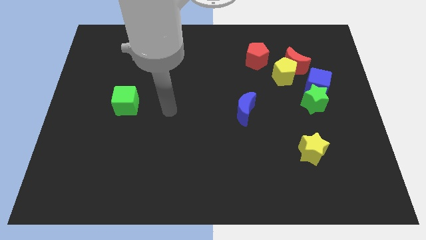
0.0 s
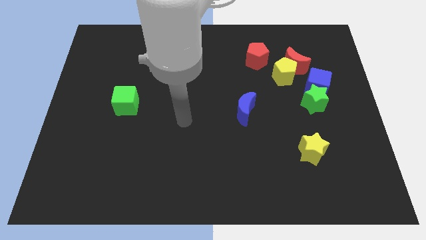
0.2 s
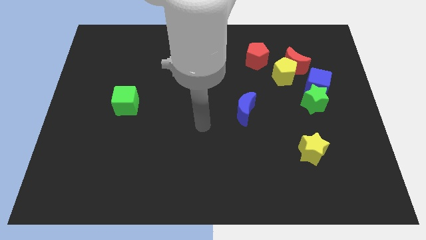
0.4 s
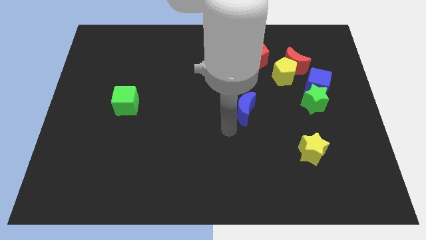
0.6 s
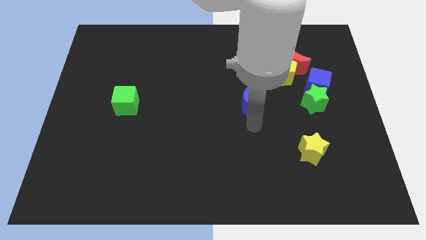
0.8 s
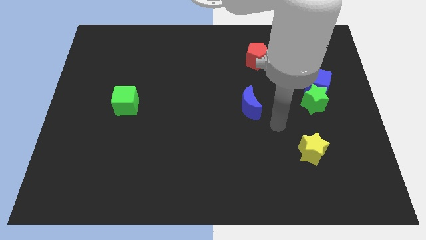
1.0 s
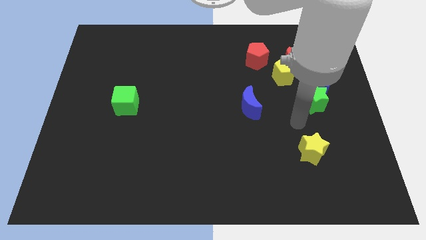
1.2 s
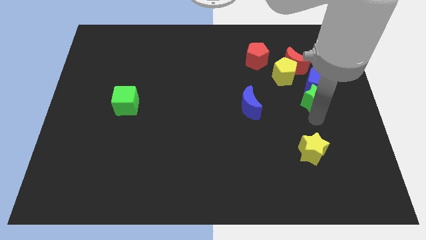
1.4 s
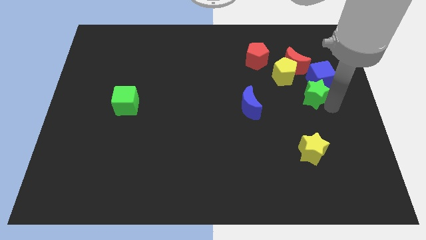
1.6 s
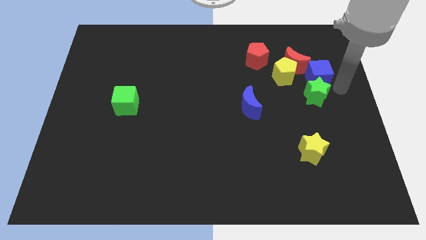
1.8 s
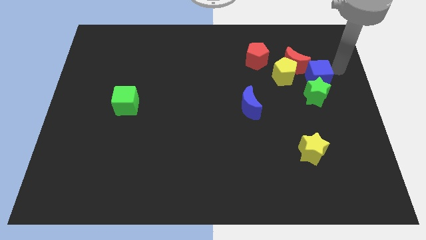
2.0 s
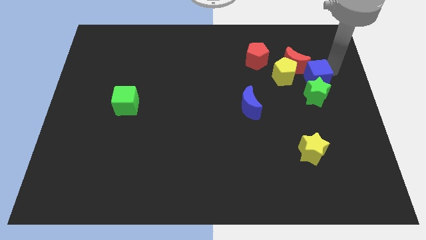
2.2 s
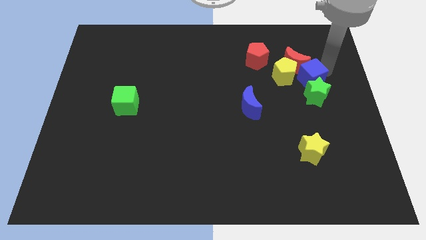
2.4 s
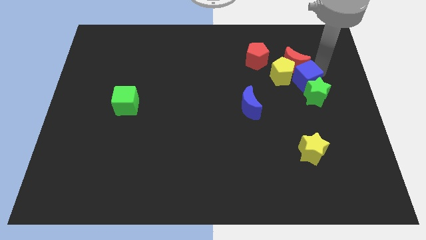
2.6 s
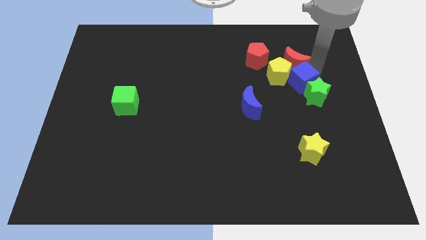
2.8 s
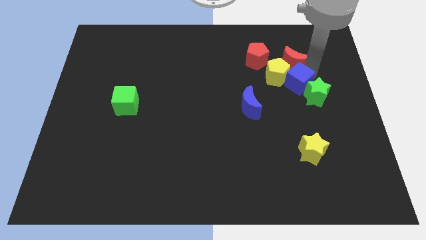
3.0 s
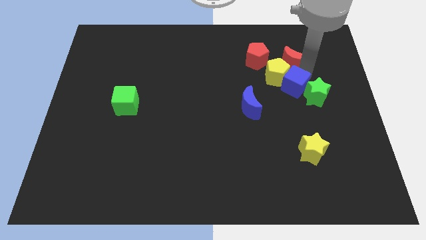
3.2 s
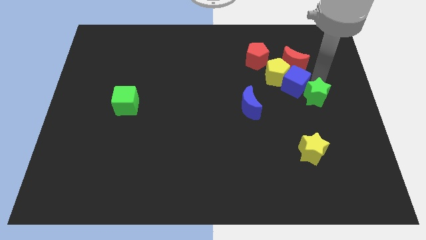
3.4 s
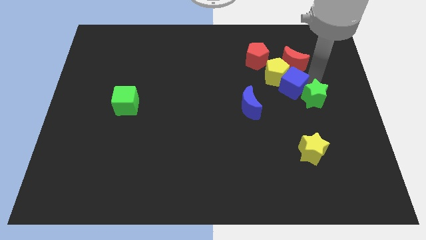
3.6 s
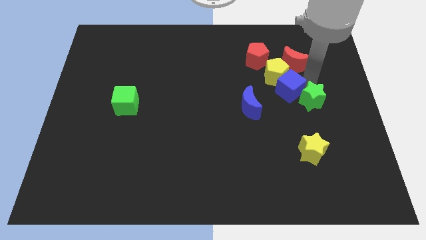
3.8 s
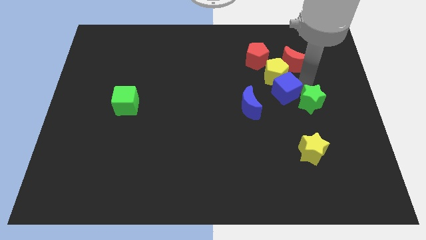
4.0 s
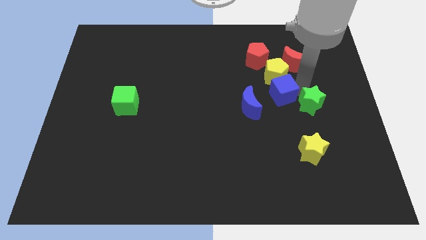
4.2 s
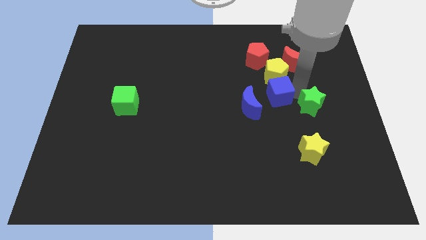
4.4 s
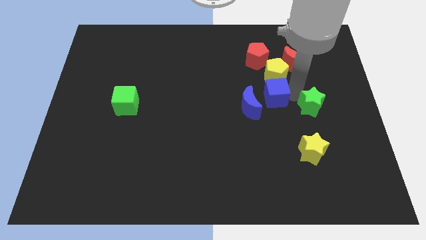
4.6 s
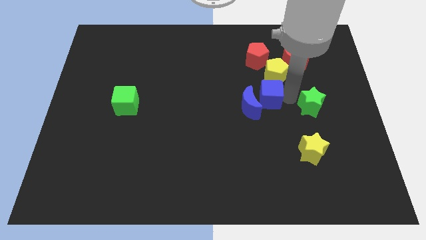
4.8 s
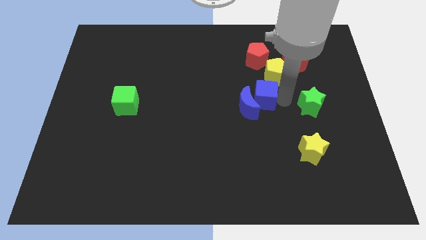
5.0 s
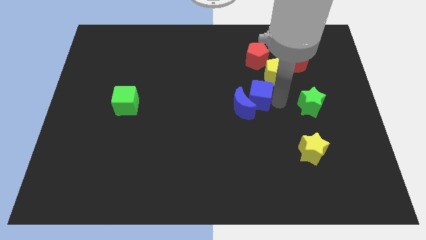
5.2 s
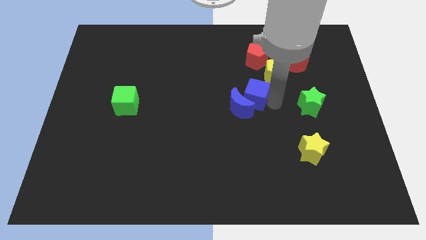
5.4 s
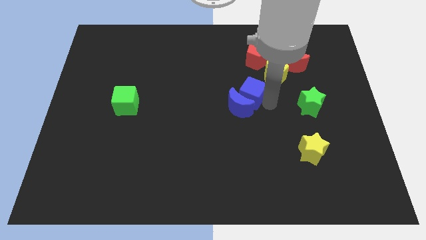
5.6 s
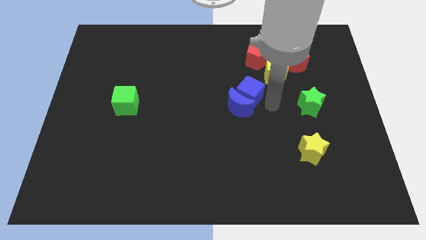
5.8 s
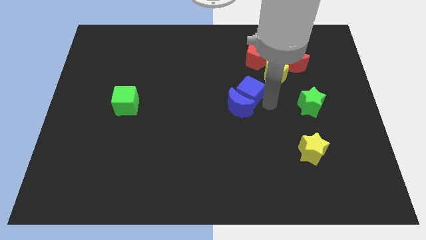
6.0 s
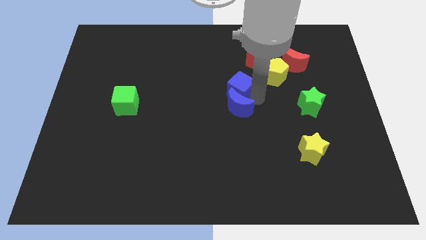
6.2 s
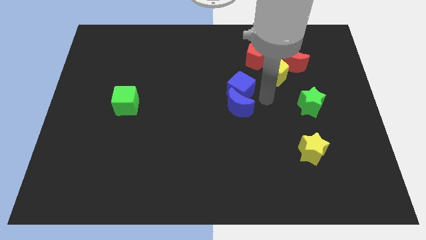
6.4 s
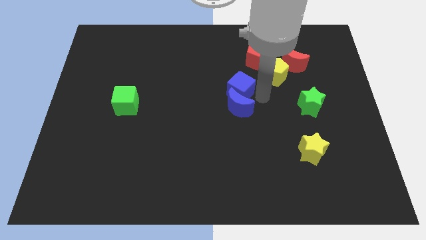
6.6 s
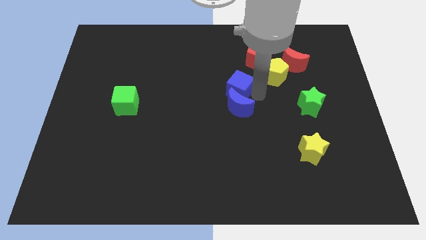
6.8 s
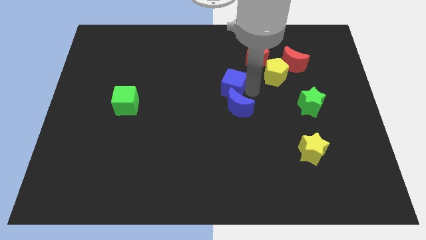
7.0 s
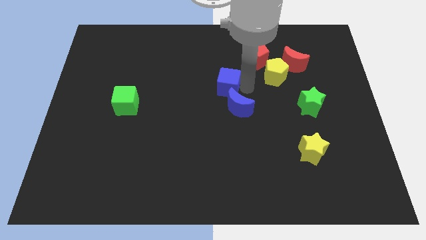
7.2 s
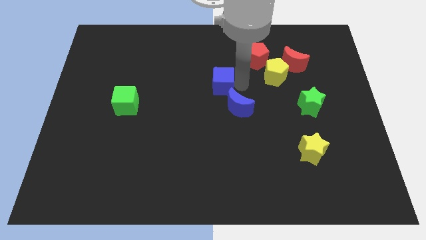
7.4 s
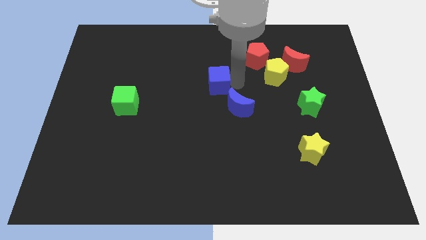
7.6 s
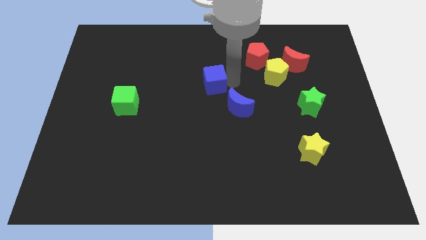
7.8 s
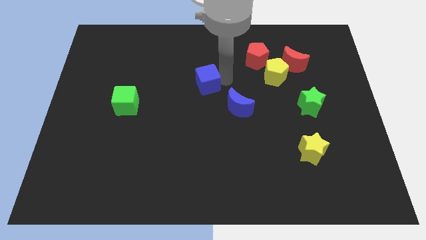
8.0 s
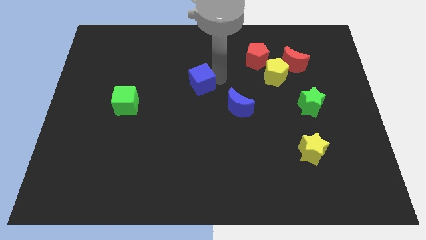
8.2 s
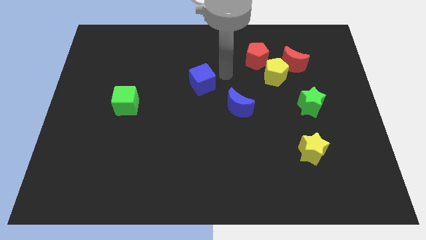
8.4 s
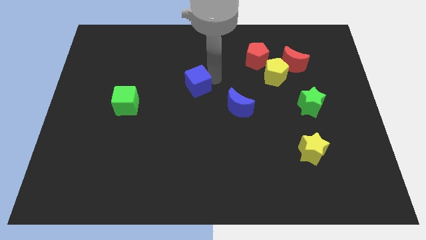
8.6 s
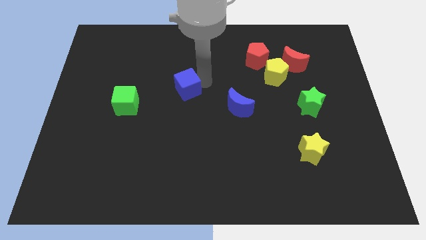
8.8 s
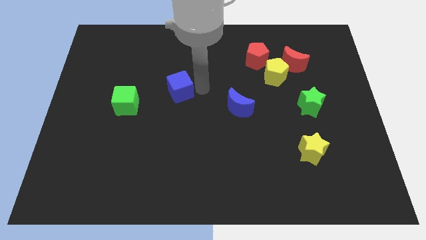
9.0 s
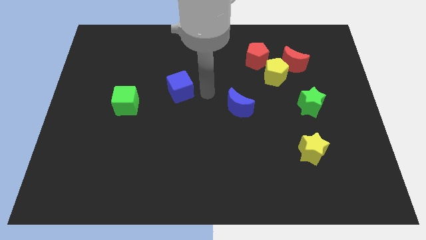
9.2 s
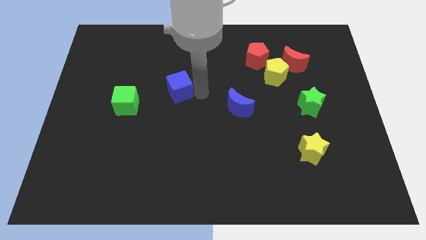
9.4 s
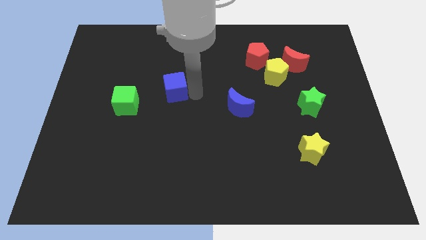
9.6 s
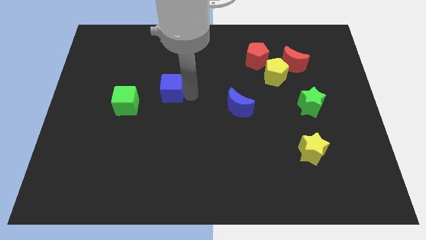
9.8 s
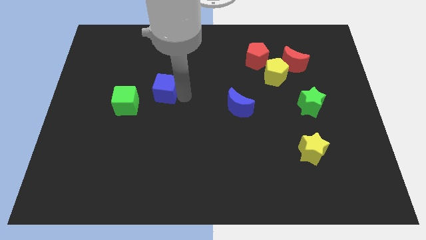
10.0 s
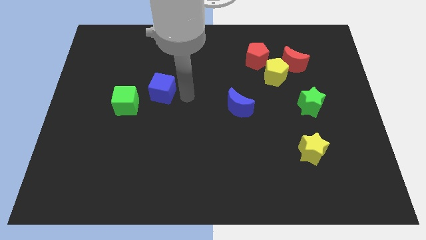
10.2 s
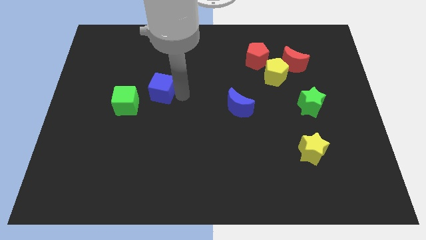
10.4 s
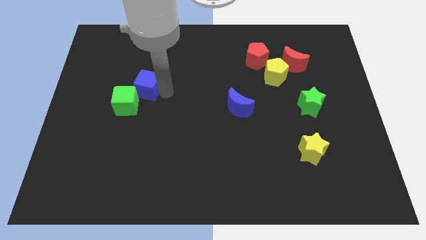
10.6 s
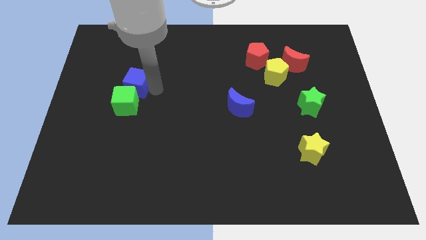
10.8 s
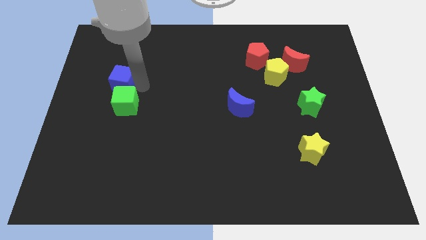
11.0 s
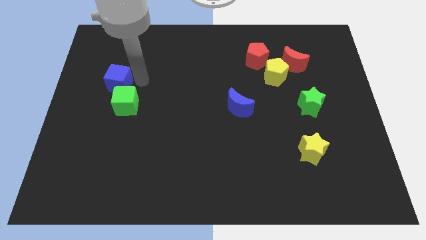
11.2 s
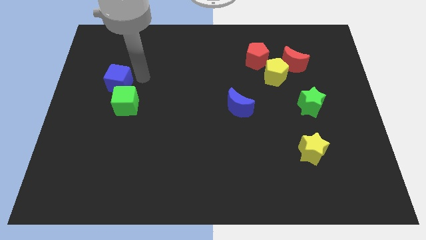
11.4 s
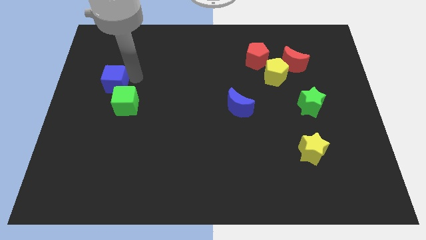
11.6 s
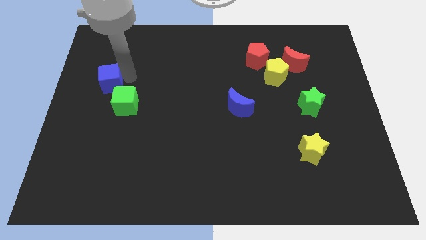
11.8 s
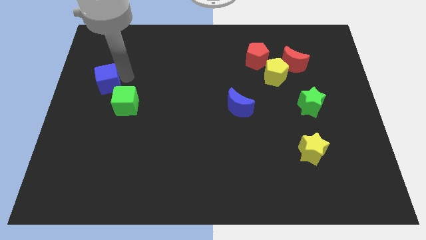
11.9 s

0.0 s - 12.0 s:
move the blue cube to the center left

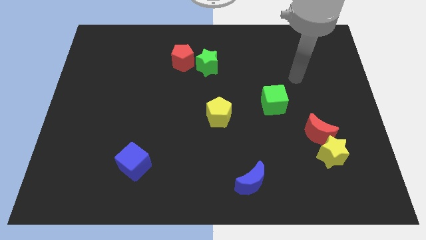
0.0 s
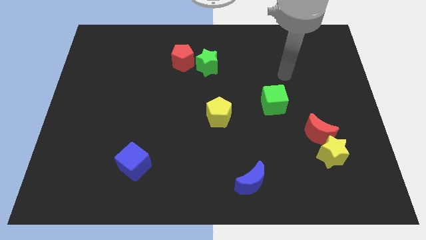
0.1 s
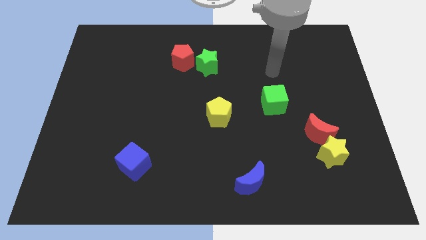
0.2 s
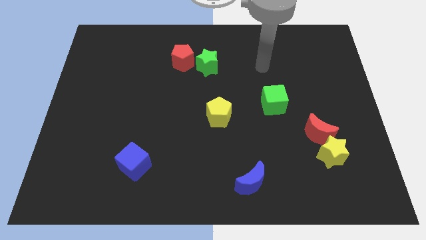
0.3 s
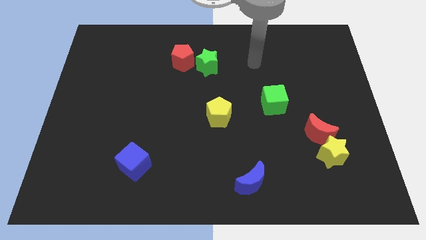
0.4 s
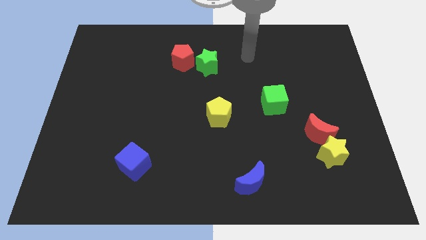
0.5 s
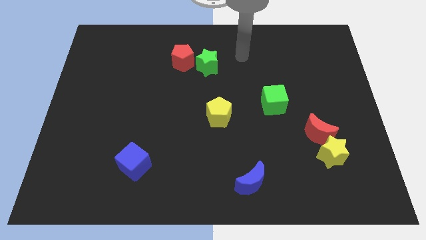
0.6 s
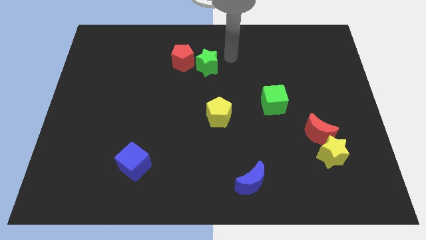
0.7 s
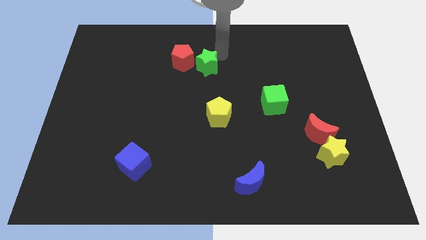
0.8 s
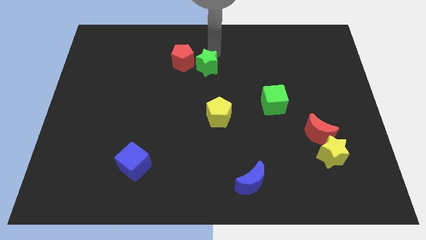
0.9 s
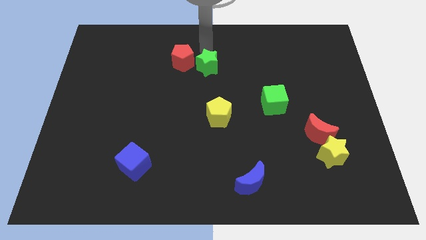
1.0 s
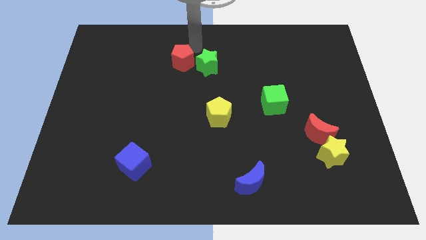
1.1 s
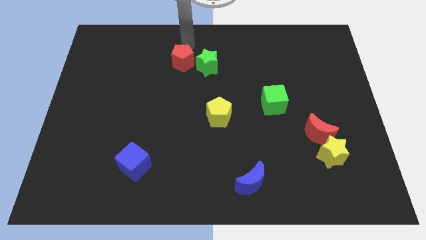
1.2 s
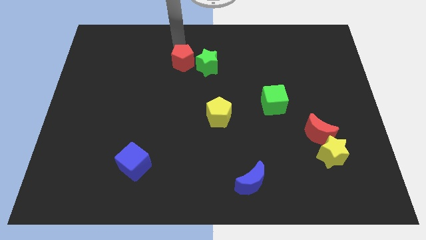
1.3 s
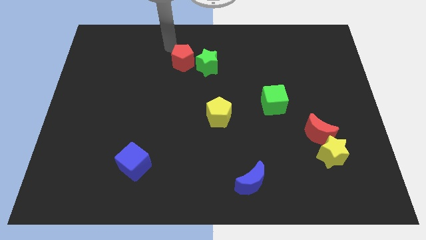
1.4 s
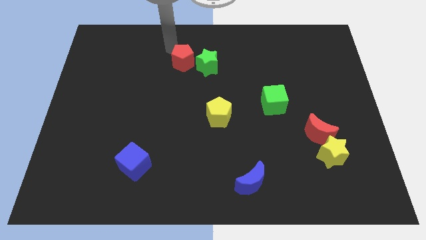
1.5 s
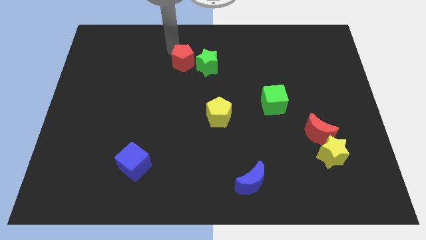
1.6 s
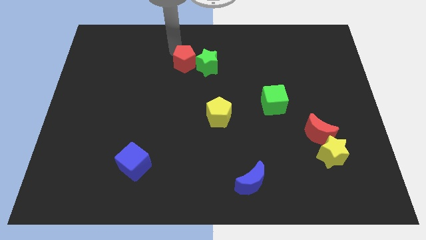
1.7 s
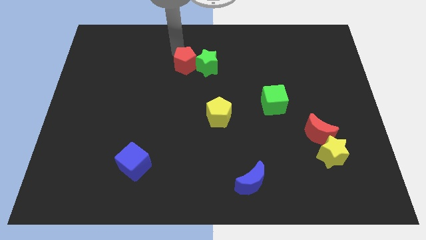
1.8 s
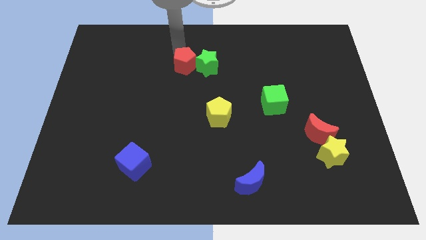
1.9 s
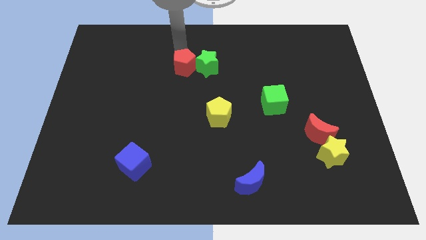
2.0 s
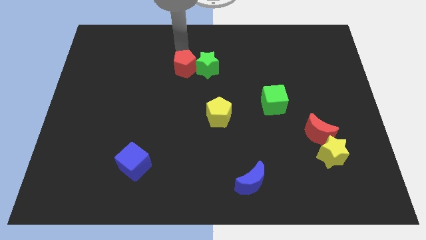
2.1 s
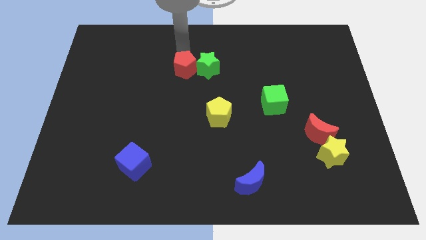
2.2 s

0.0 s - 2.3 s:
put the red pentagon to the center
